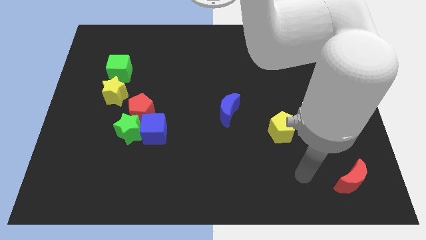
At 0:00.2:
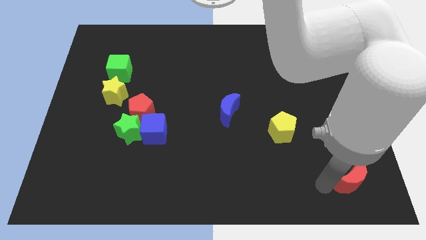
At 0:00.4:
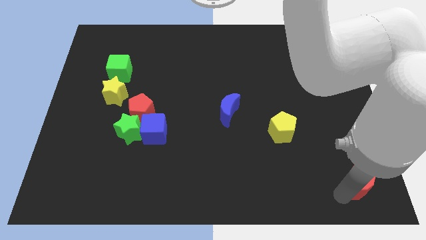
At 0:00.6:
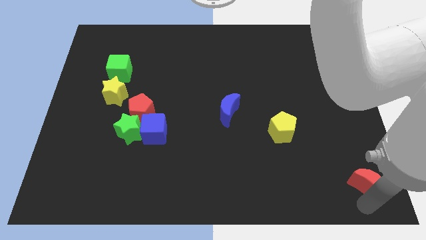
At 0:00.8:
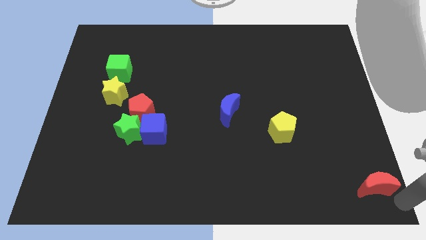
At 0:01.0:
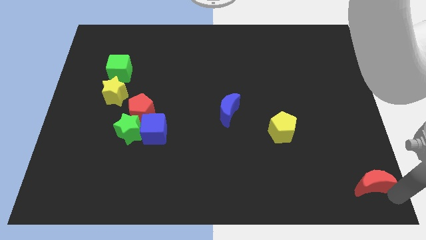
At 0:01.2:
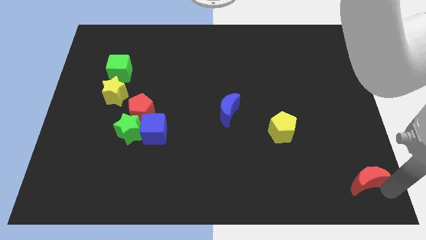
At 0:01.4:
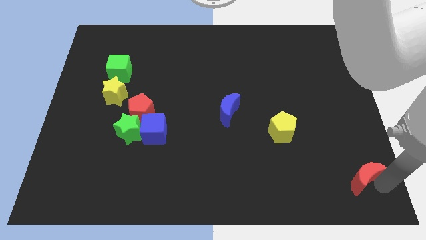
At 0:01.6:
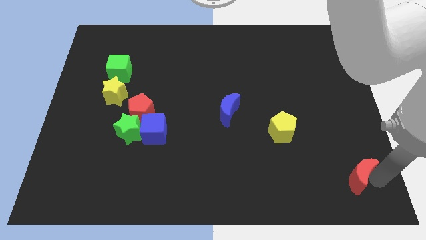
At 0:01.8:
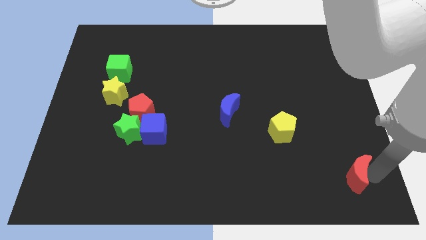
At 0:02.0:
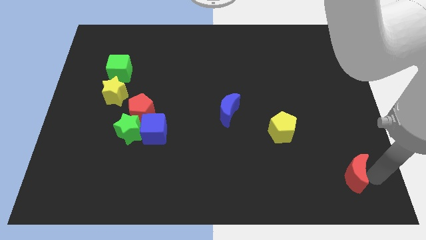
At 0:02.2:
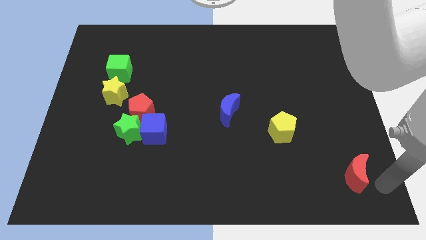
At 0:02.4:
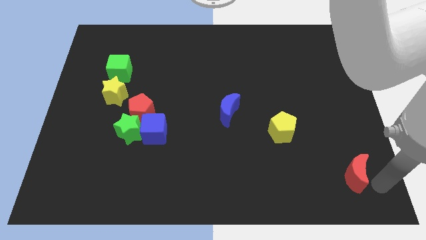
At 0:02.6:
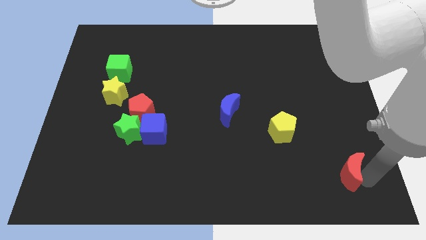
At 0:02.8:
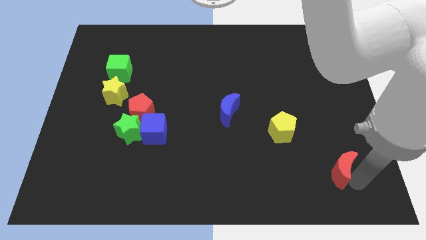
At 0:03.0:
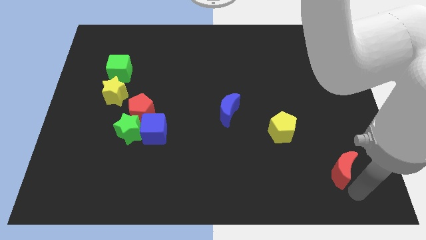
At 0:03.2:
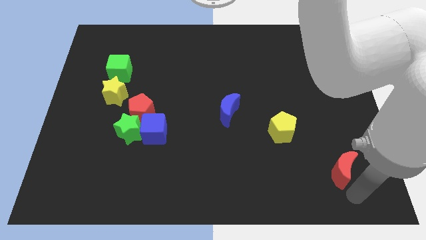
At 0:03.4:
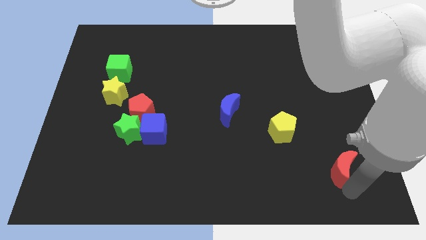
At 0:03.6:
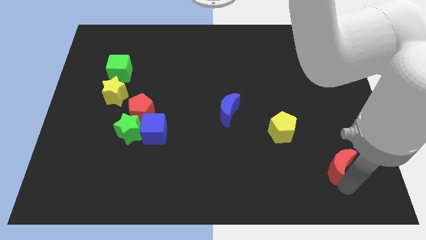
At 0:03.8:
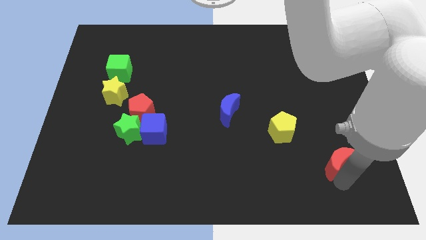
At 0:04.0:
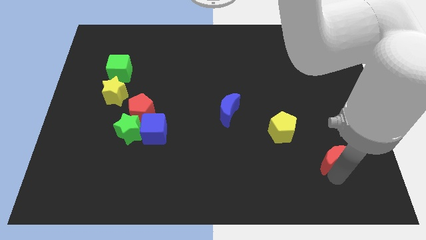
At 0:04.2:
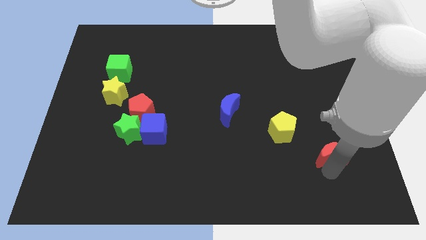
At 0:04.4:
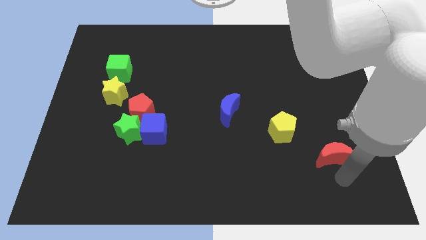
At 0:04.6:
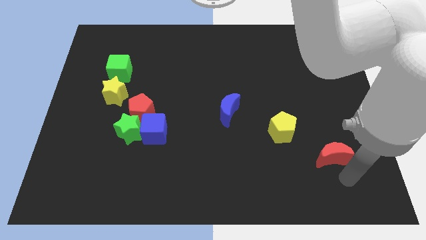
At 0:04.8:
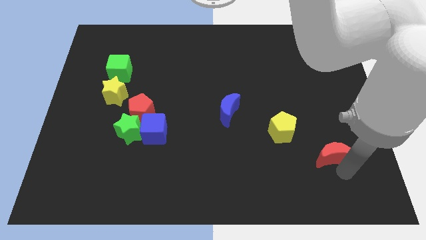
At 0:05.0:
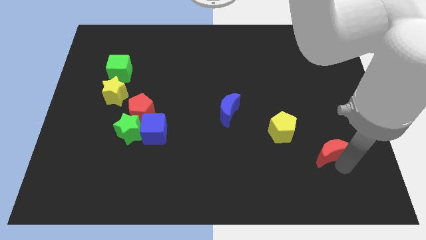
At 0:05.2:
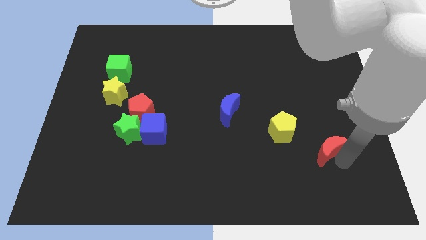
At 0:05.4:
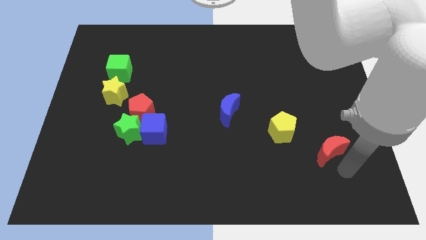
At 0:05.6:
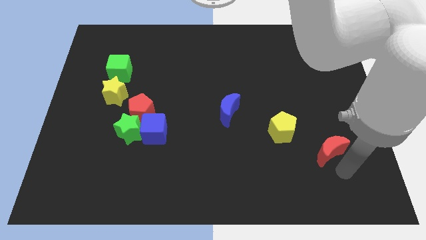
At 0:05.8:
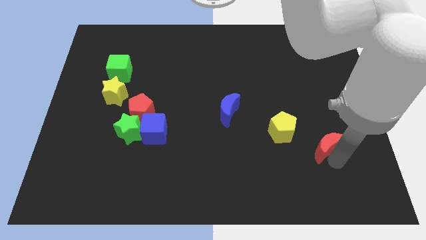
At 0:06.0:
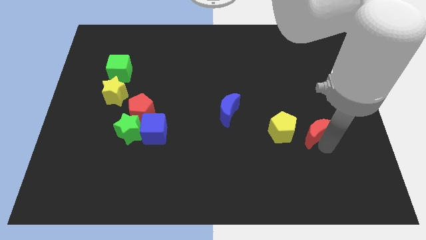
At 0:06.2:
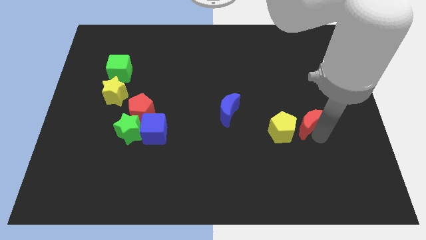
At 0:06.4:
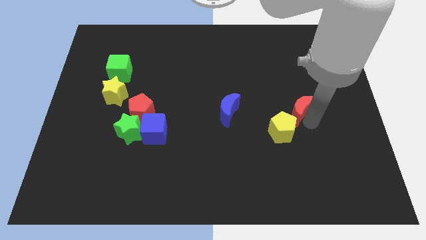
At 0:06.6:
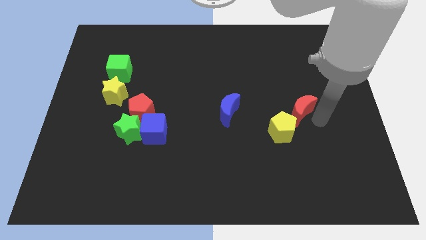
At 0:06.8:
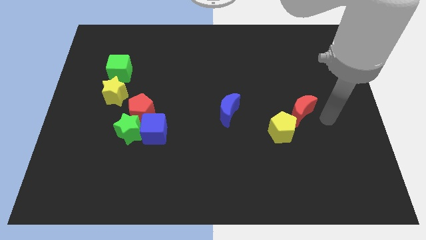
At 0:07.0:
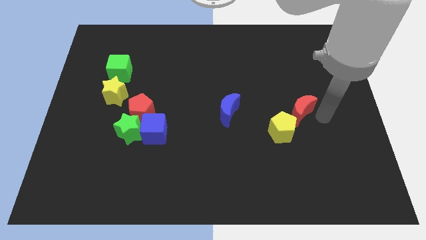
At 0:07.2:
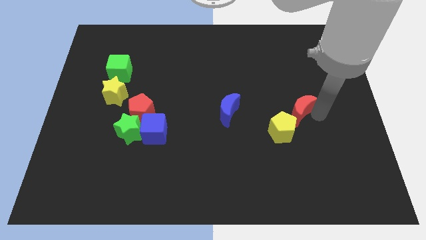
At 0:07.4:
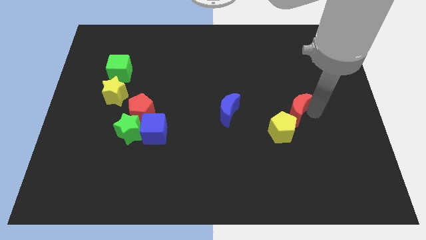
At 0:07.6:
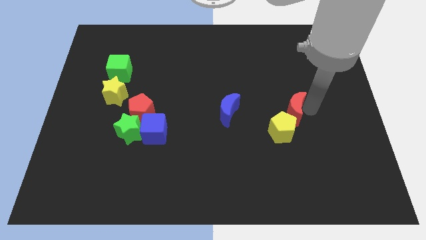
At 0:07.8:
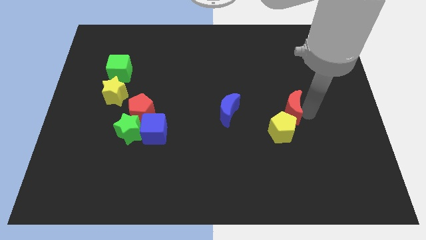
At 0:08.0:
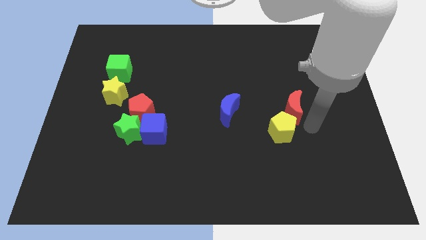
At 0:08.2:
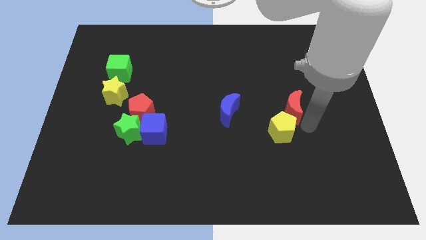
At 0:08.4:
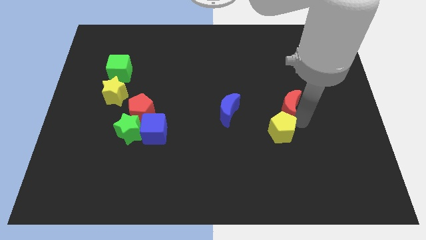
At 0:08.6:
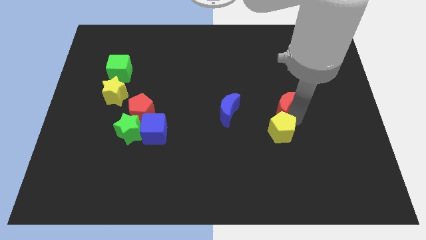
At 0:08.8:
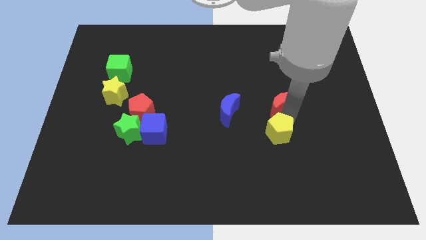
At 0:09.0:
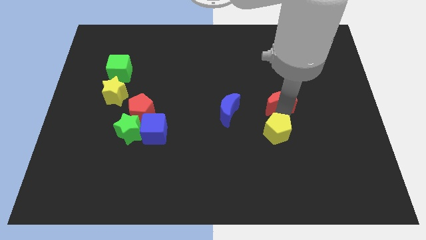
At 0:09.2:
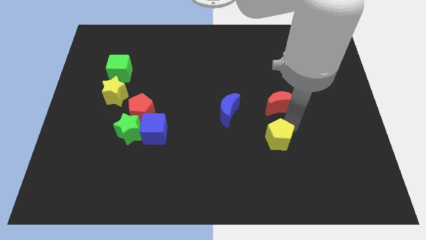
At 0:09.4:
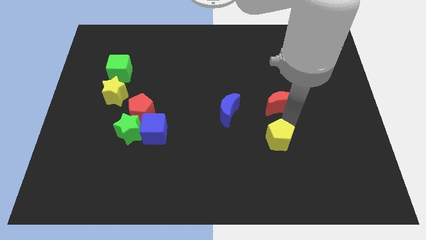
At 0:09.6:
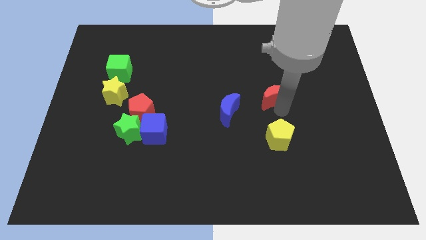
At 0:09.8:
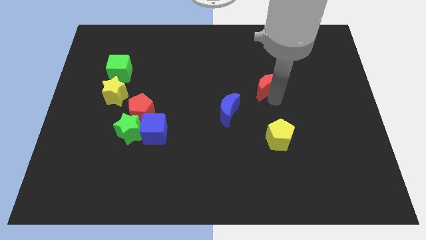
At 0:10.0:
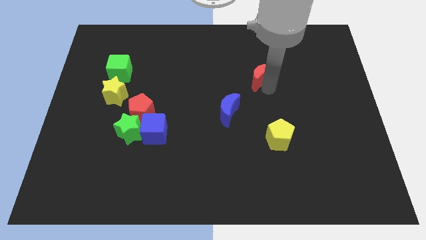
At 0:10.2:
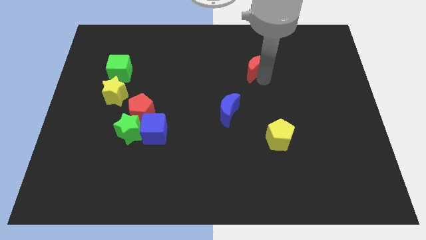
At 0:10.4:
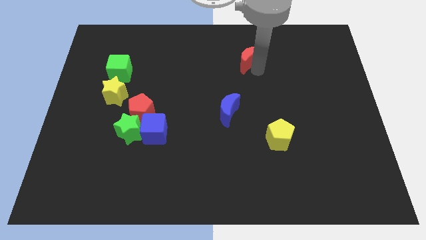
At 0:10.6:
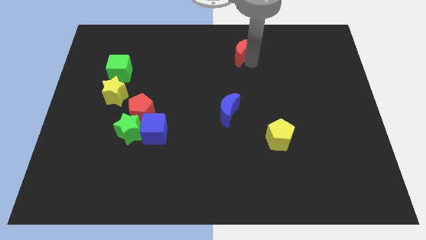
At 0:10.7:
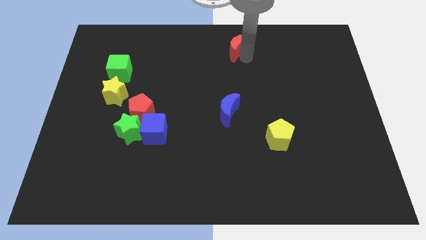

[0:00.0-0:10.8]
put the red moon to the top

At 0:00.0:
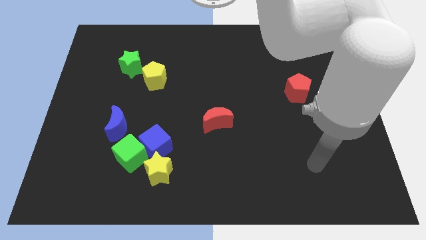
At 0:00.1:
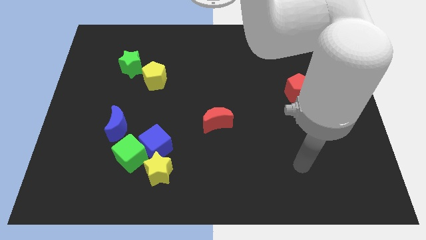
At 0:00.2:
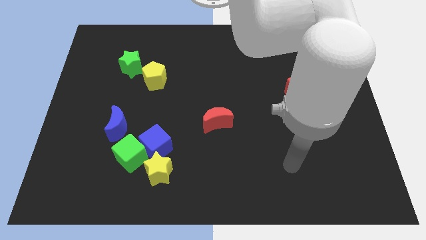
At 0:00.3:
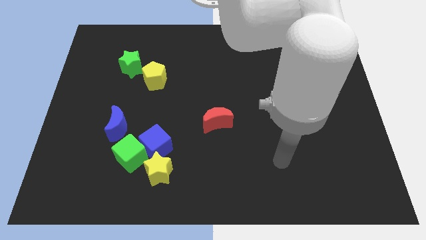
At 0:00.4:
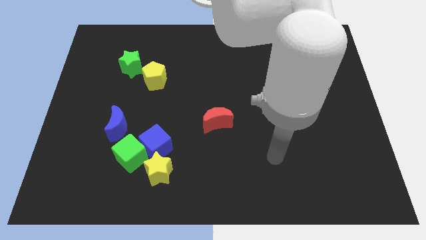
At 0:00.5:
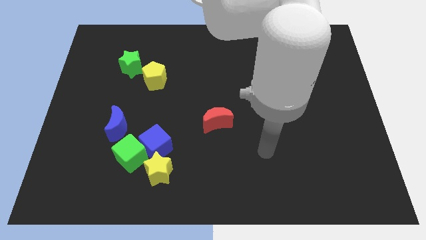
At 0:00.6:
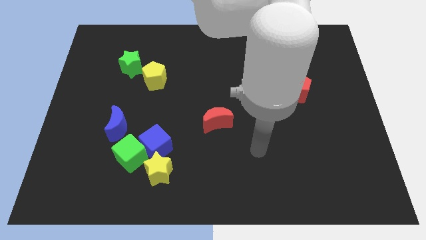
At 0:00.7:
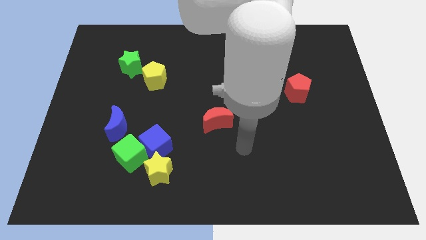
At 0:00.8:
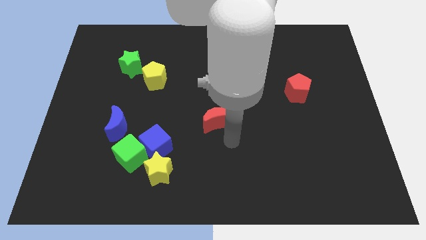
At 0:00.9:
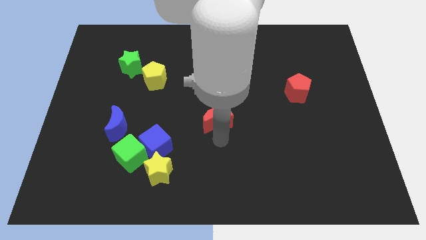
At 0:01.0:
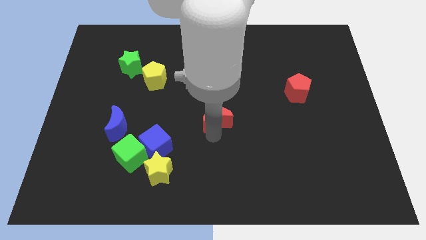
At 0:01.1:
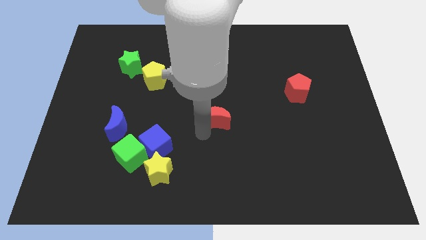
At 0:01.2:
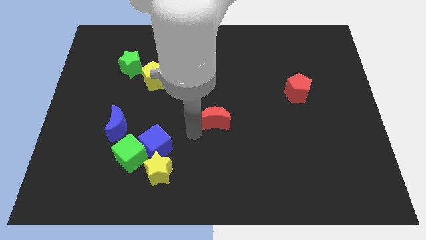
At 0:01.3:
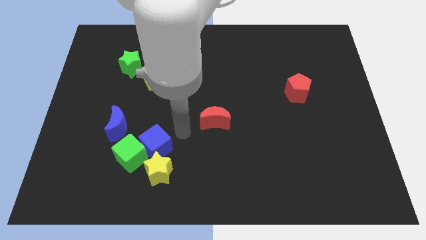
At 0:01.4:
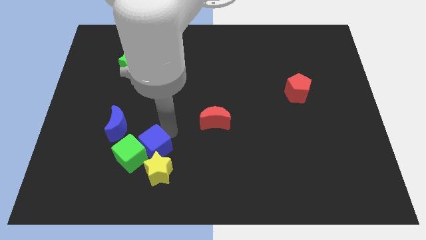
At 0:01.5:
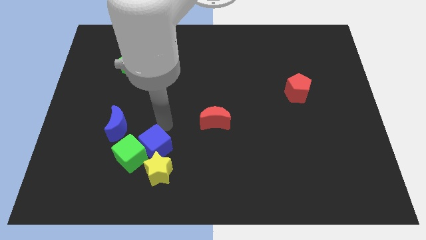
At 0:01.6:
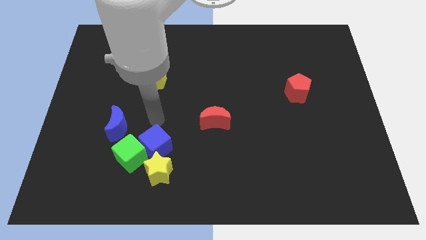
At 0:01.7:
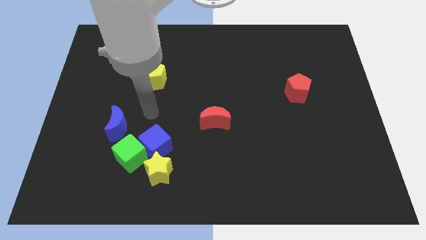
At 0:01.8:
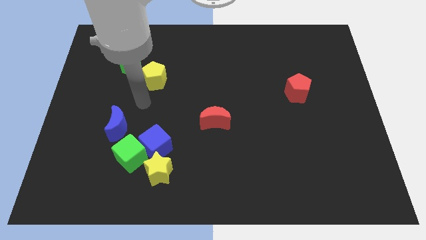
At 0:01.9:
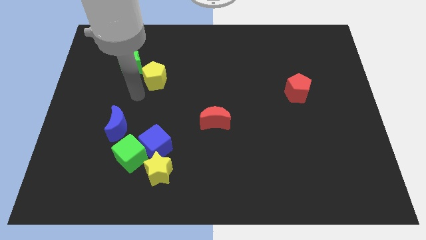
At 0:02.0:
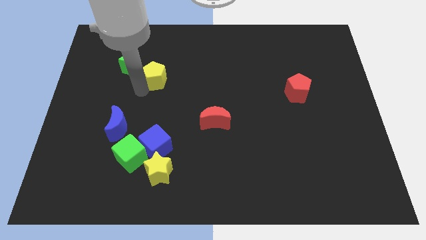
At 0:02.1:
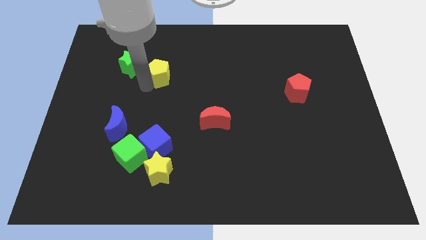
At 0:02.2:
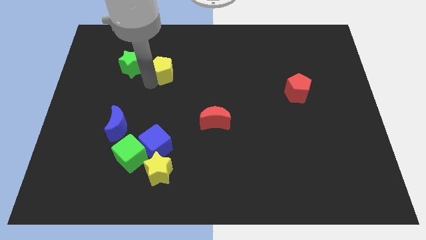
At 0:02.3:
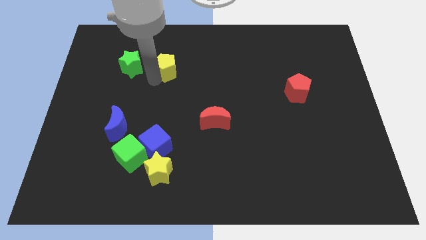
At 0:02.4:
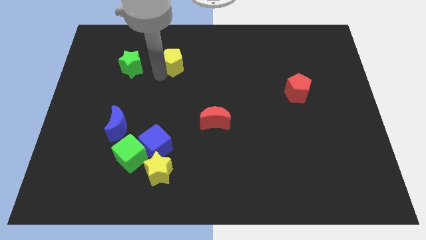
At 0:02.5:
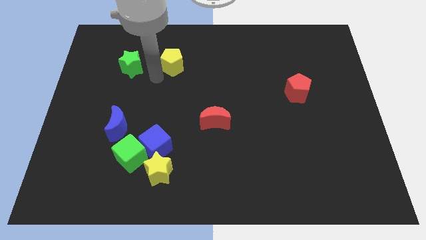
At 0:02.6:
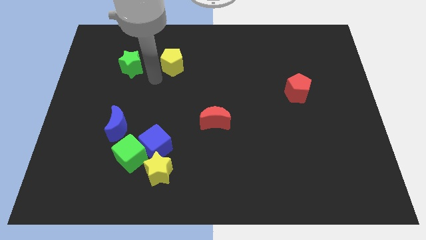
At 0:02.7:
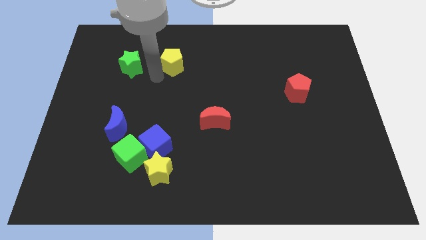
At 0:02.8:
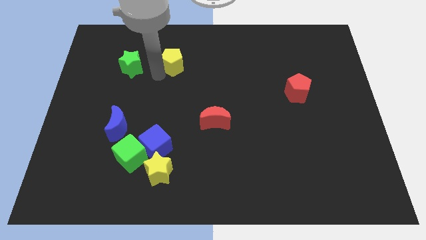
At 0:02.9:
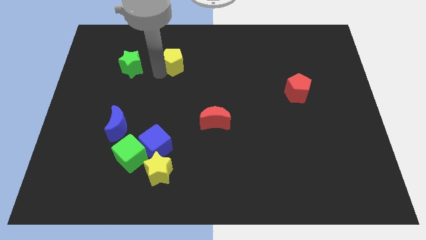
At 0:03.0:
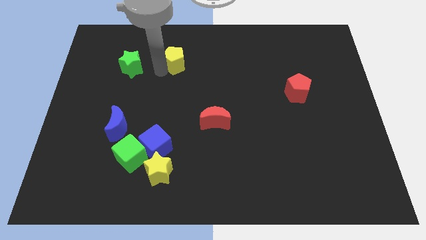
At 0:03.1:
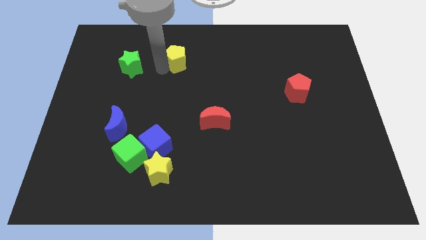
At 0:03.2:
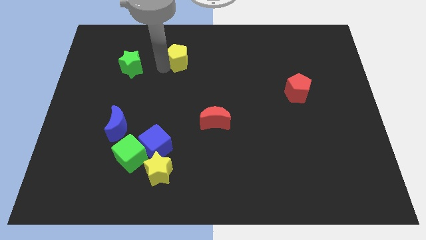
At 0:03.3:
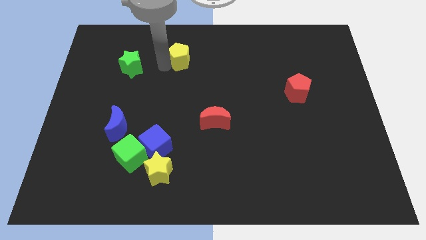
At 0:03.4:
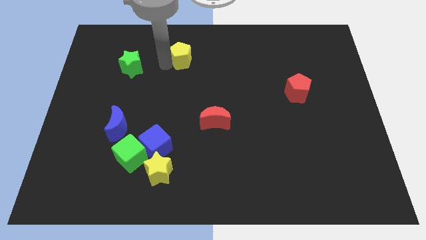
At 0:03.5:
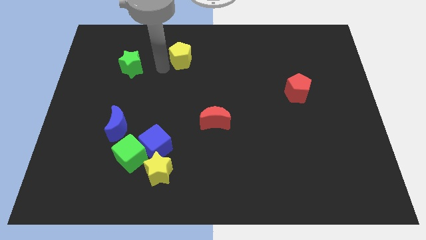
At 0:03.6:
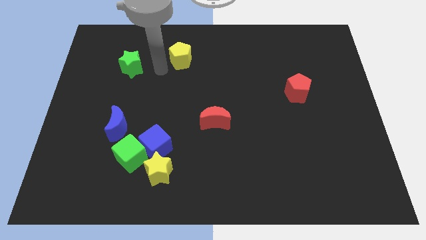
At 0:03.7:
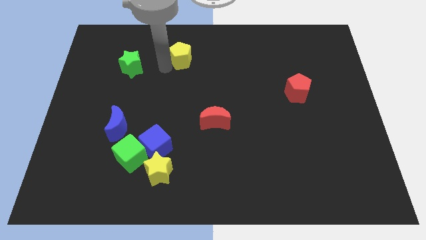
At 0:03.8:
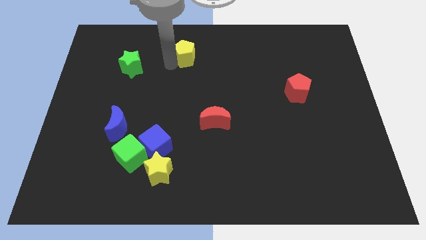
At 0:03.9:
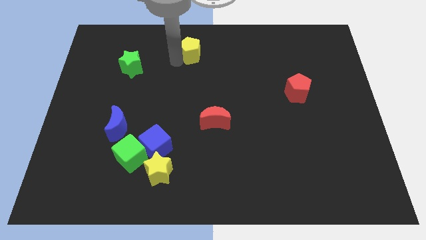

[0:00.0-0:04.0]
slide the yellow pentagon to the towards your base
